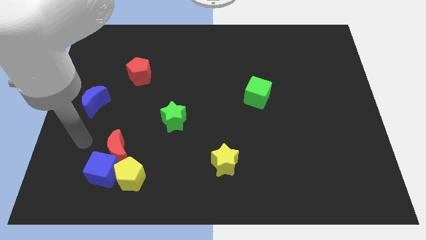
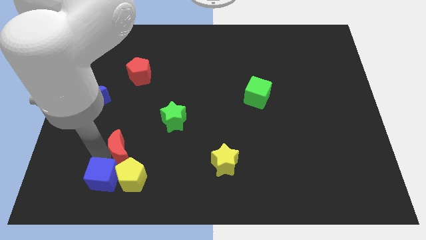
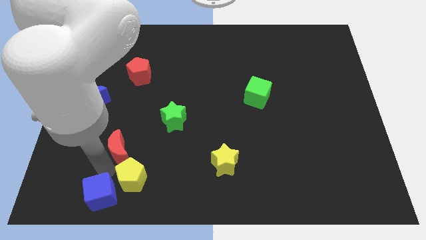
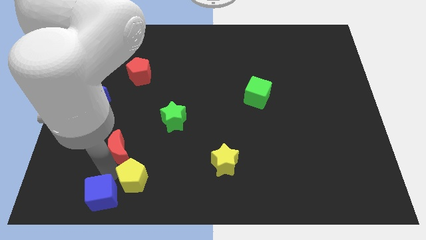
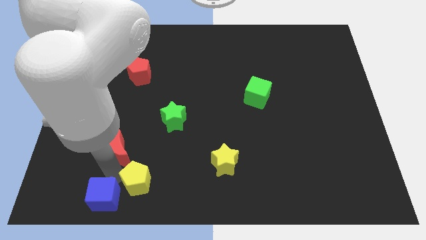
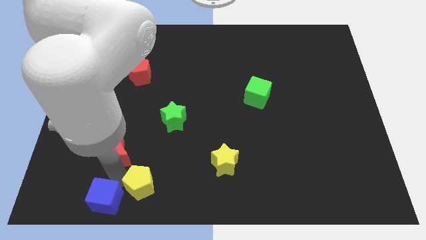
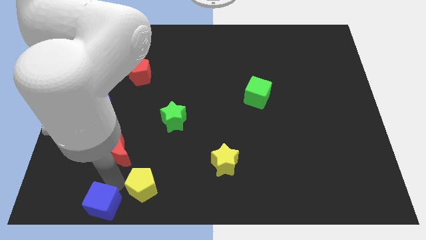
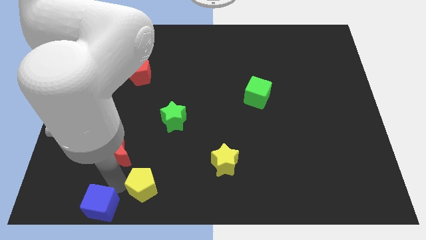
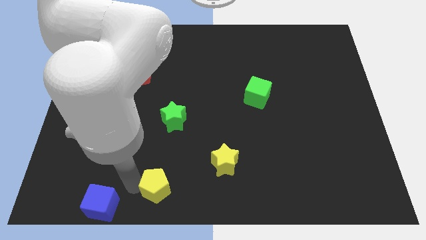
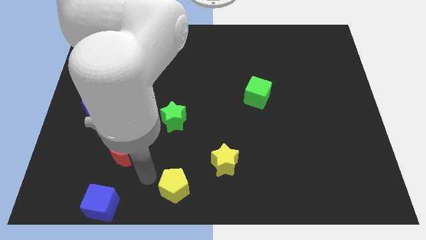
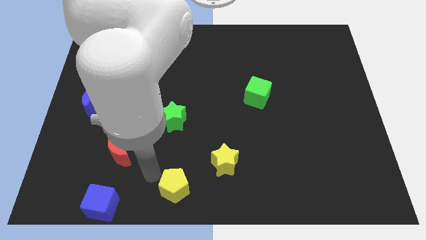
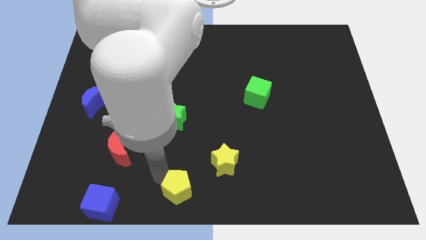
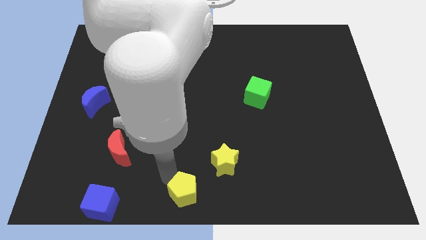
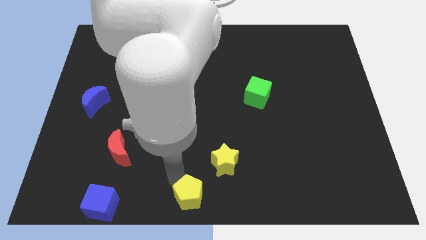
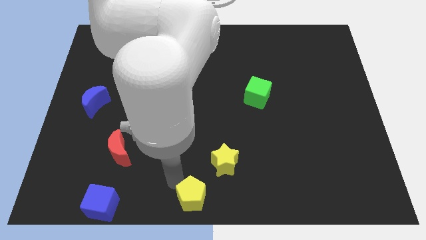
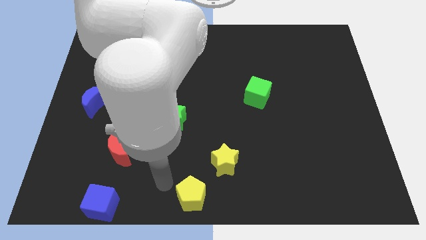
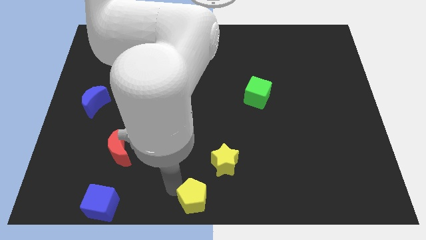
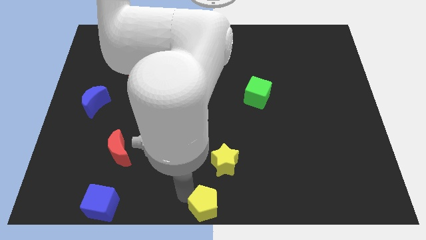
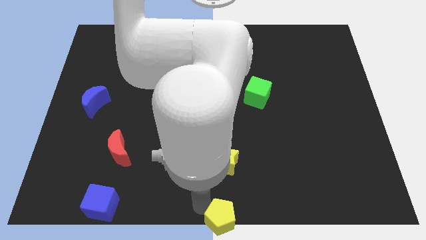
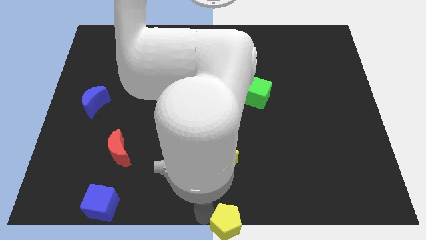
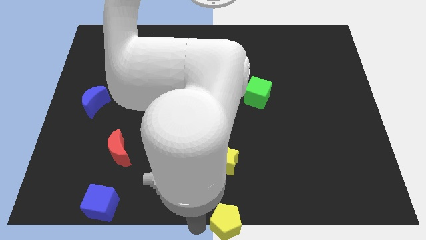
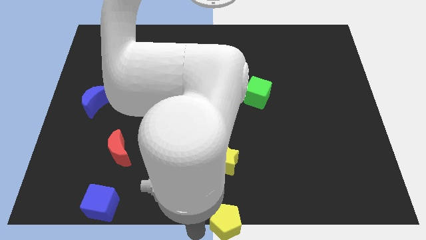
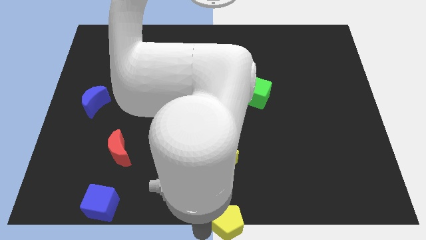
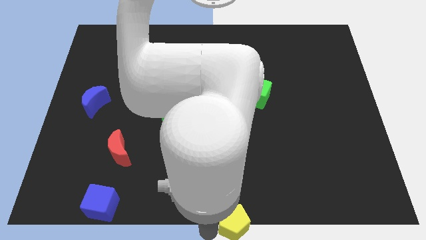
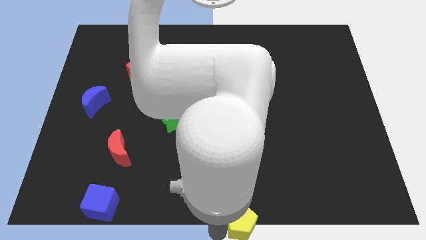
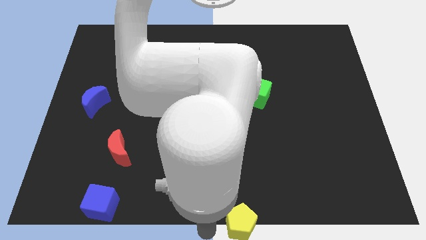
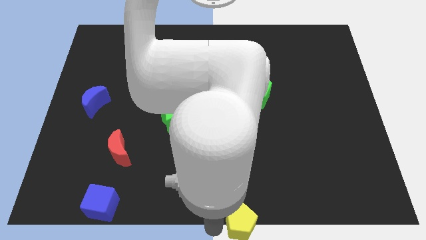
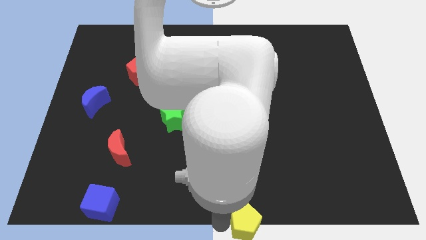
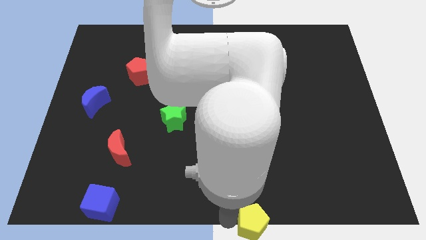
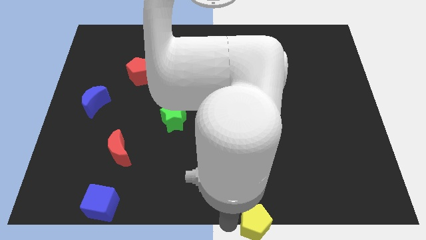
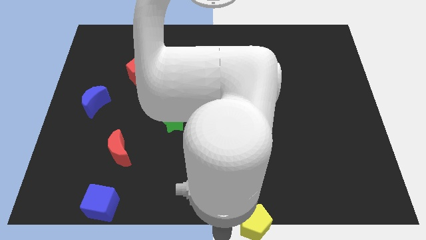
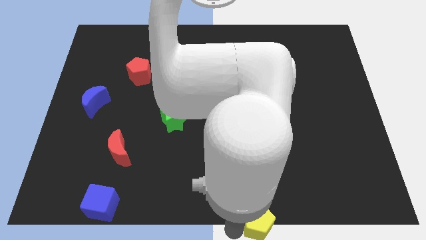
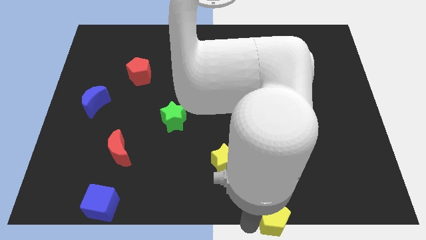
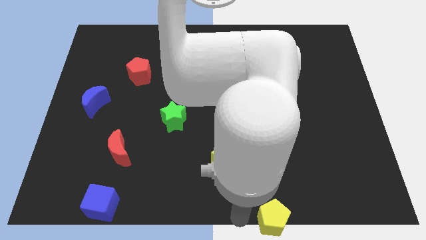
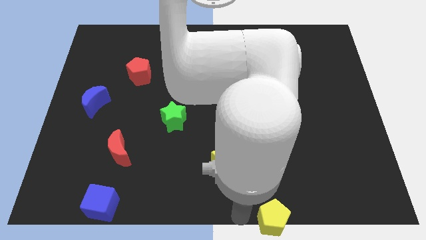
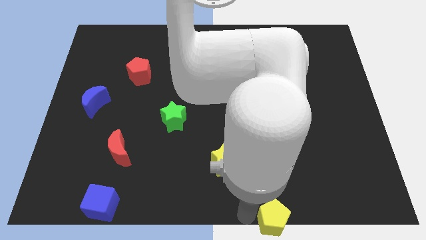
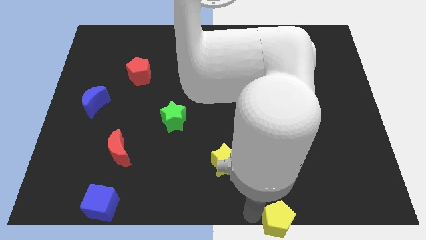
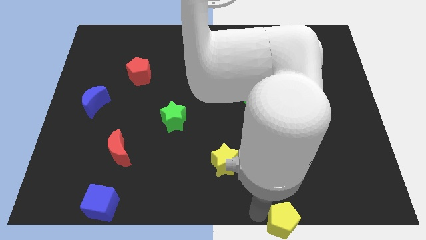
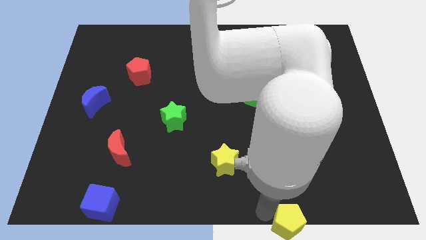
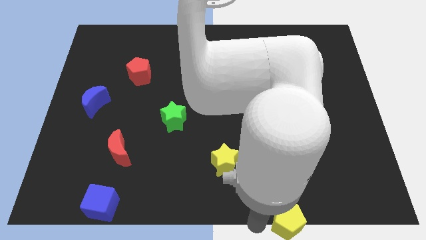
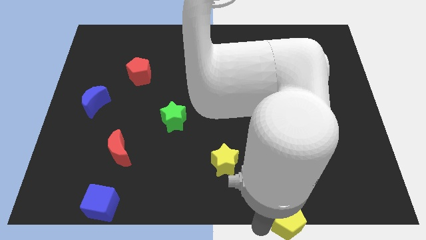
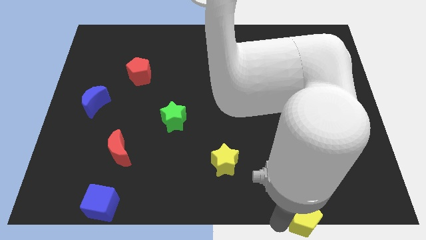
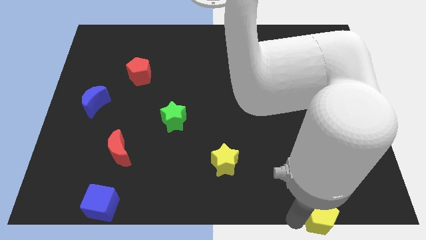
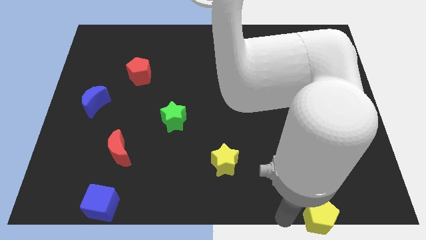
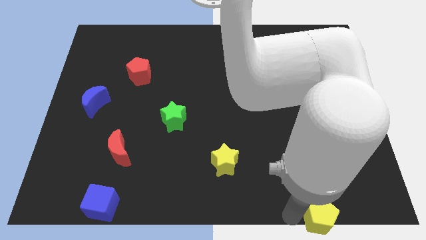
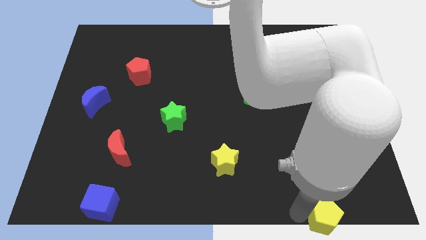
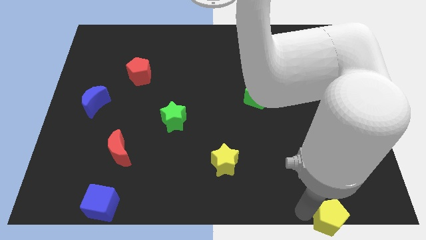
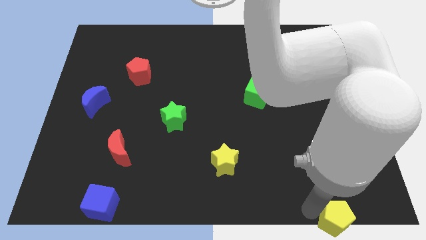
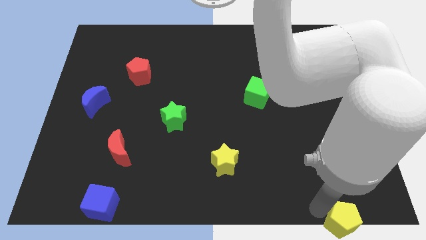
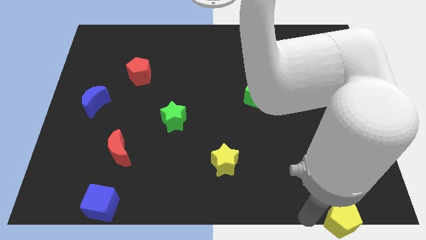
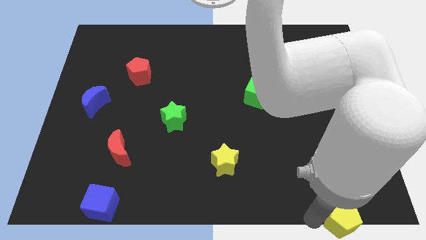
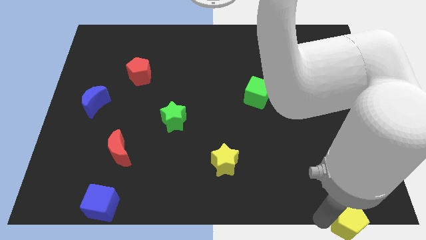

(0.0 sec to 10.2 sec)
put the yellow pentagon to the lower right corner

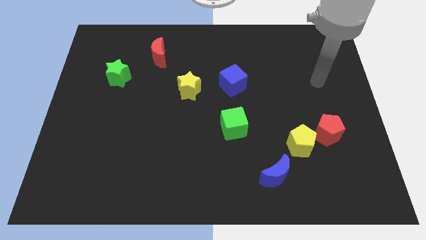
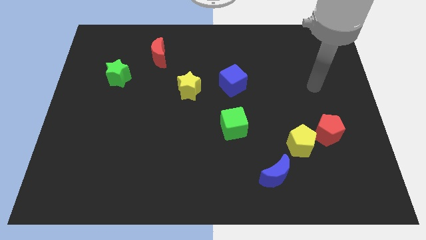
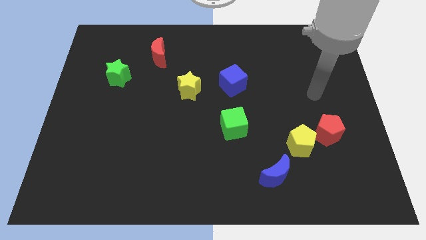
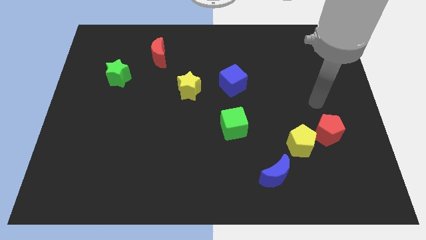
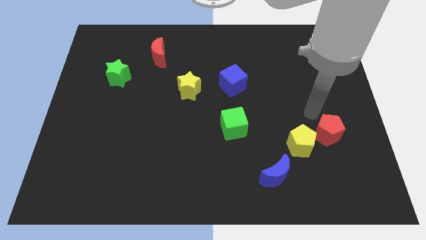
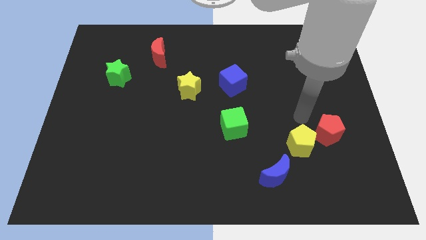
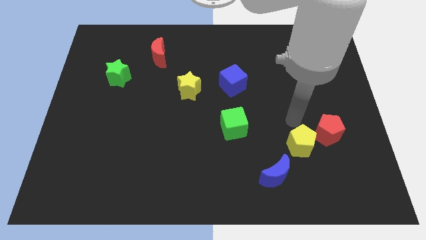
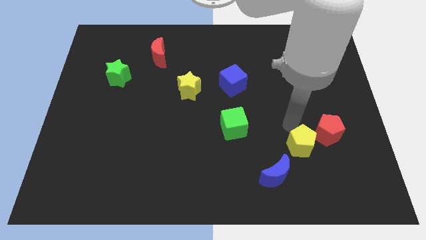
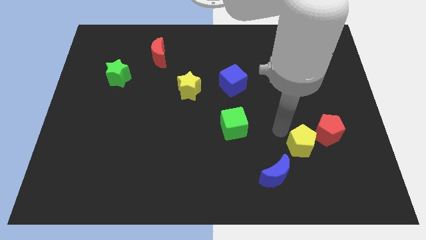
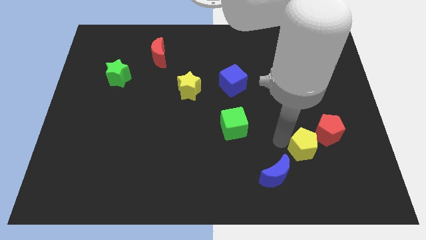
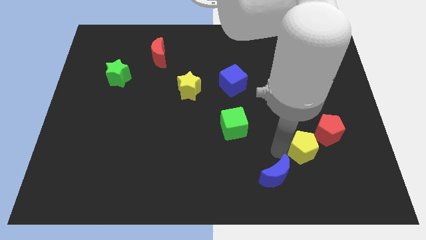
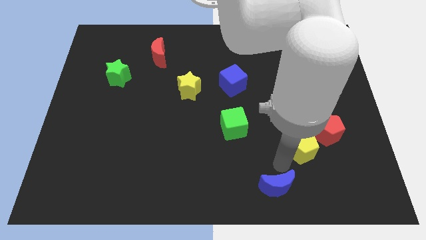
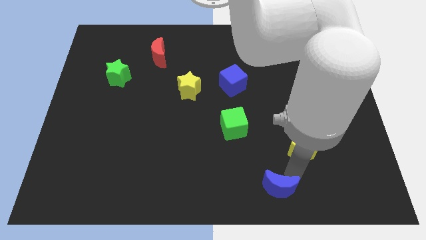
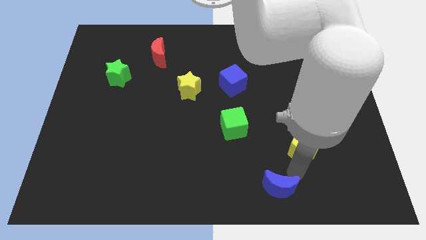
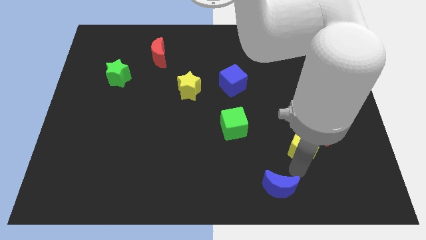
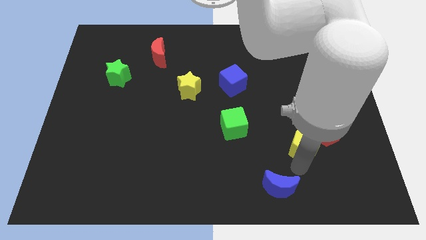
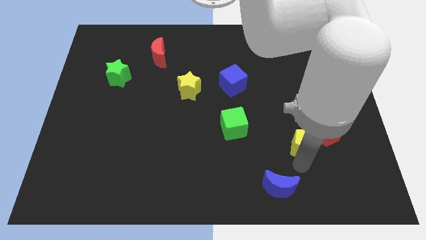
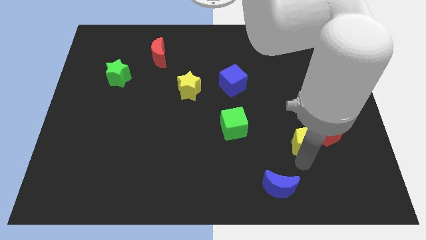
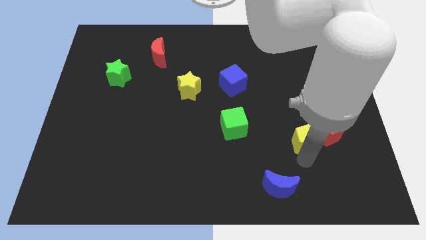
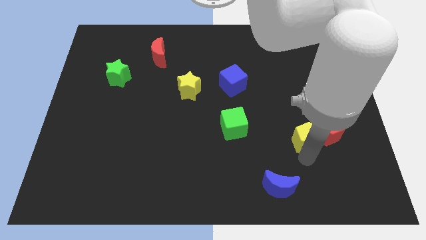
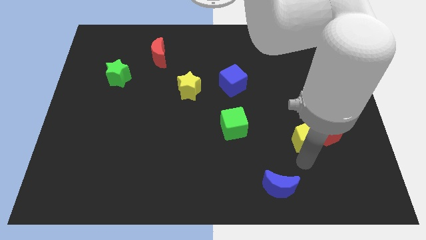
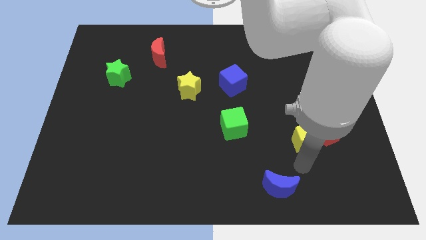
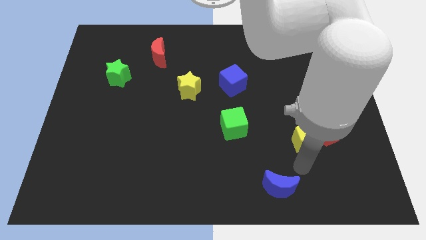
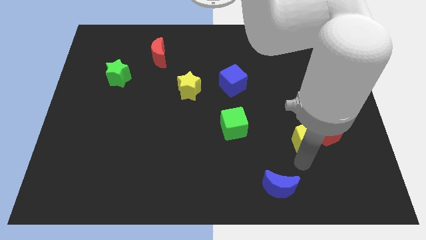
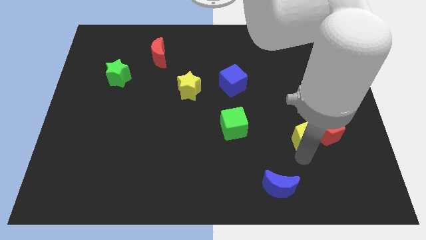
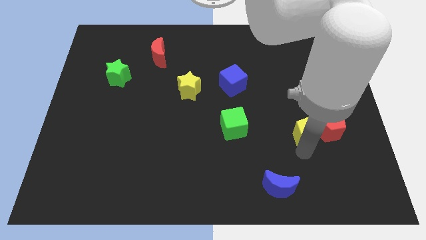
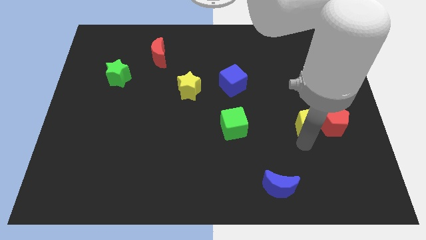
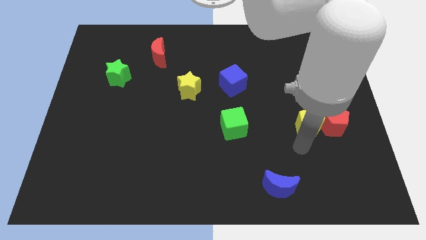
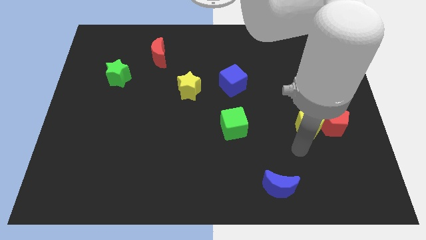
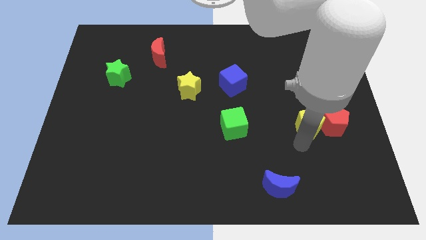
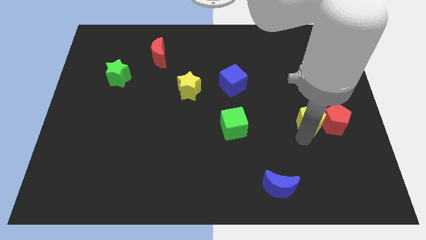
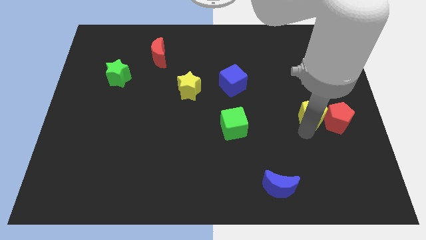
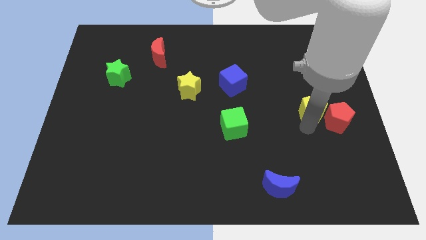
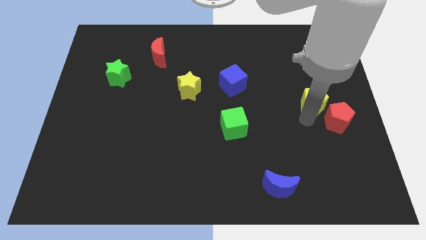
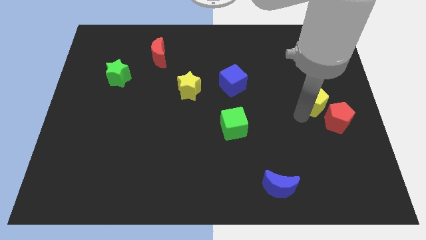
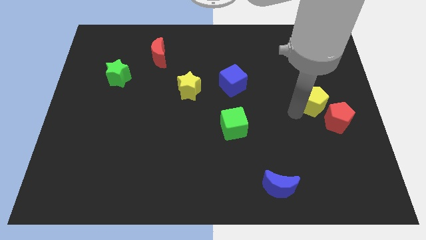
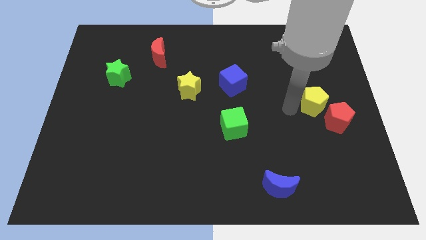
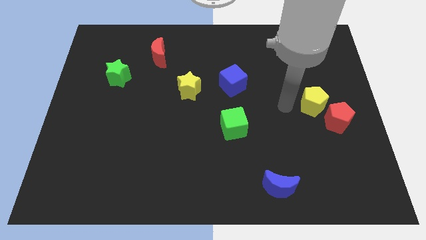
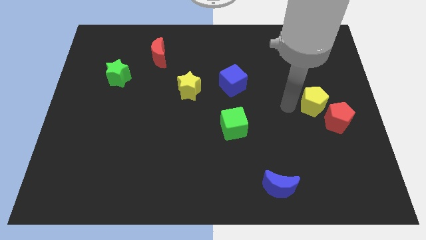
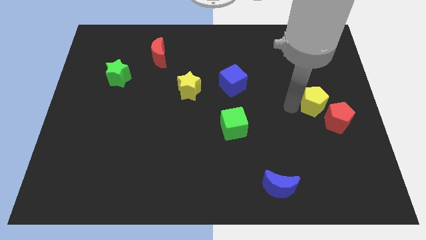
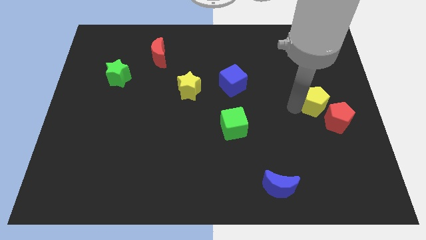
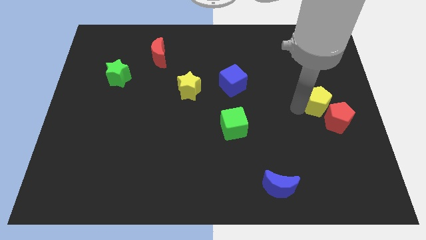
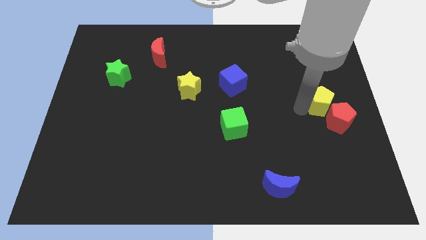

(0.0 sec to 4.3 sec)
slide the yellow pentagon to the right side of the board
